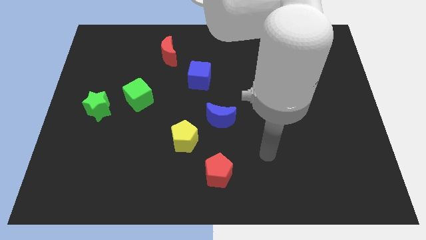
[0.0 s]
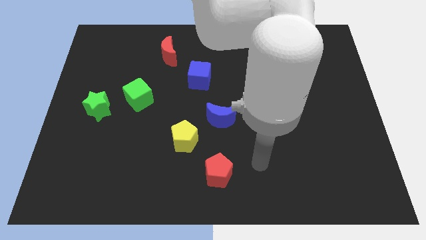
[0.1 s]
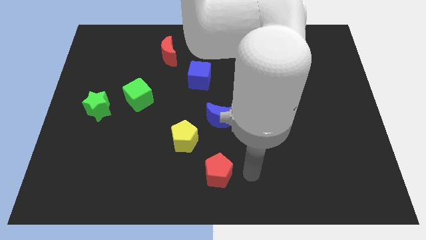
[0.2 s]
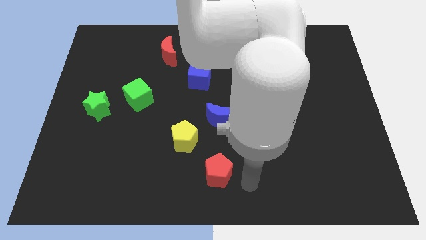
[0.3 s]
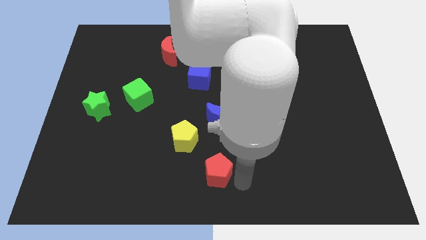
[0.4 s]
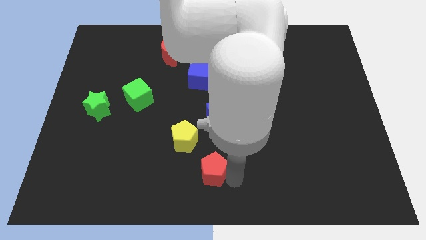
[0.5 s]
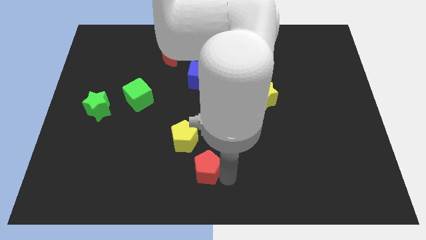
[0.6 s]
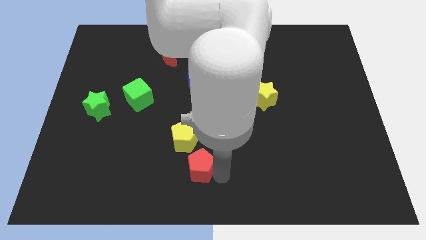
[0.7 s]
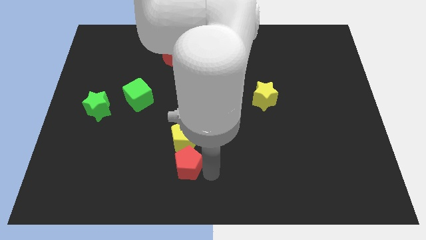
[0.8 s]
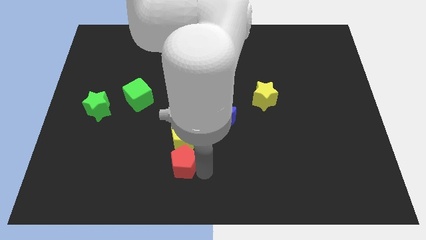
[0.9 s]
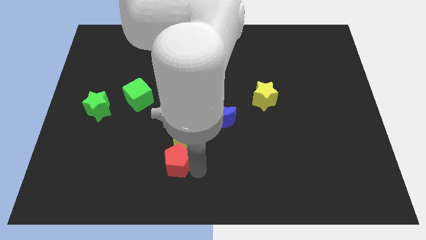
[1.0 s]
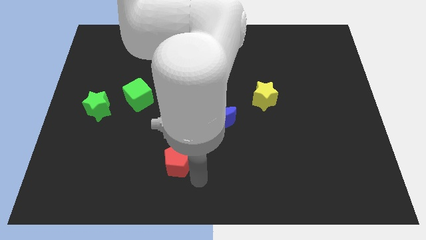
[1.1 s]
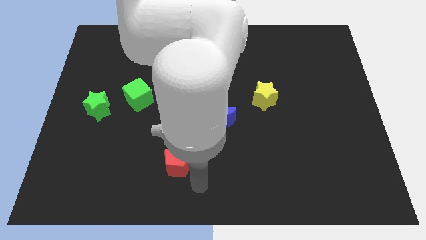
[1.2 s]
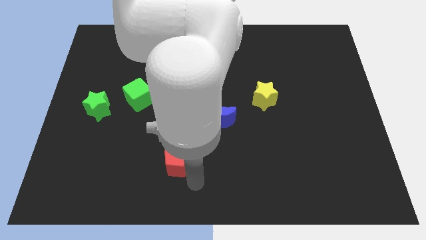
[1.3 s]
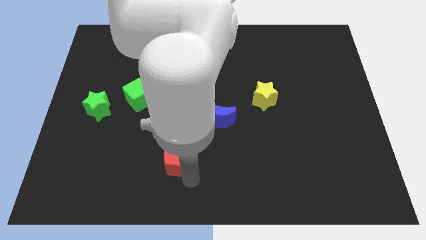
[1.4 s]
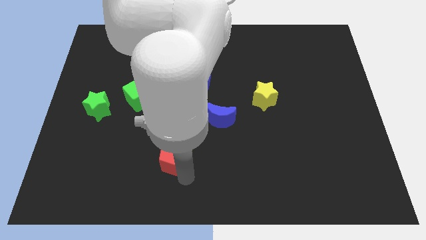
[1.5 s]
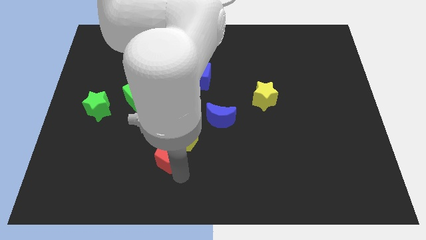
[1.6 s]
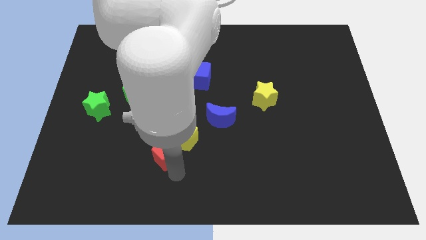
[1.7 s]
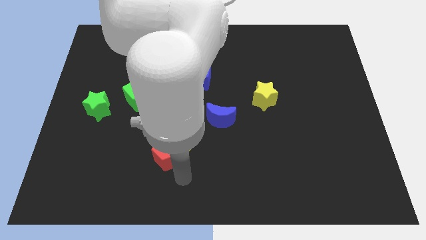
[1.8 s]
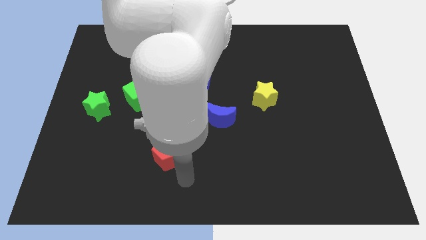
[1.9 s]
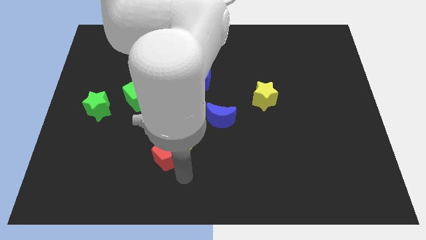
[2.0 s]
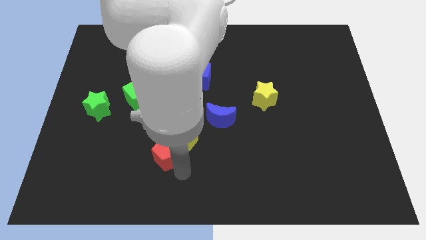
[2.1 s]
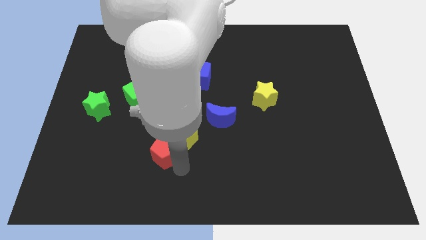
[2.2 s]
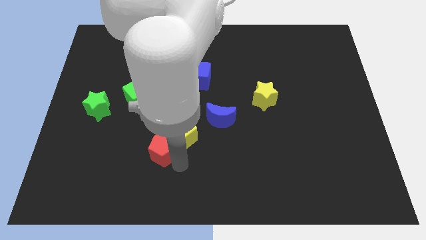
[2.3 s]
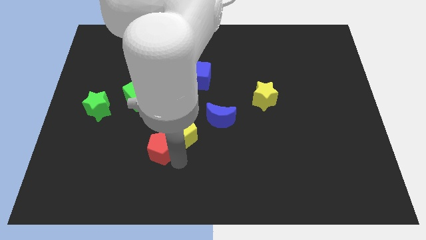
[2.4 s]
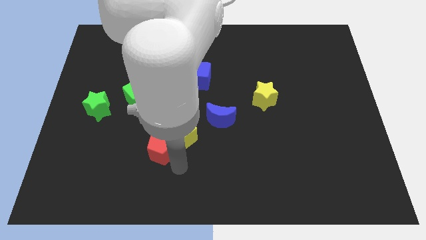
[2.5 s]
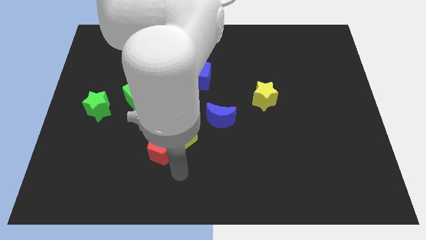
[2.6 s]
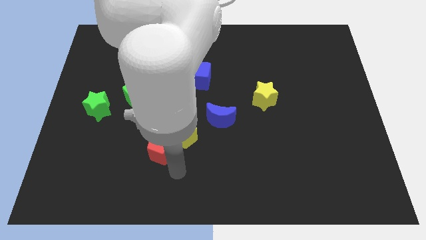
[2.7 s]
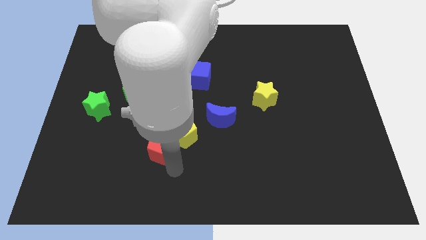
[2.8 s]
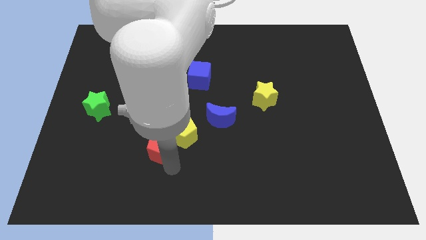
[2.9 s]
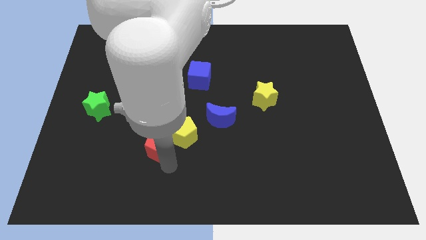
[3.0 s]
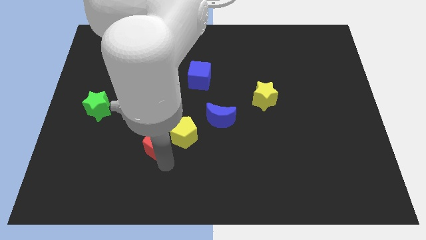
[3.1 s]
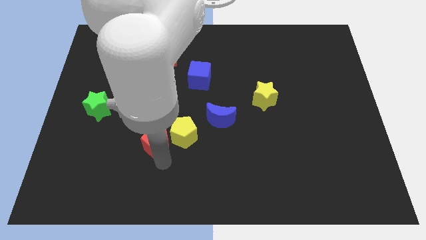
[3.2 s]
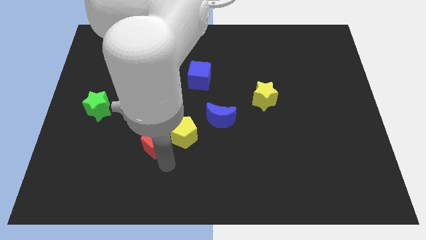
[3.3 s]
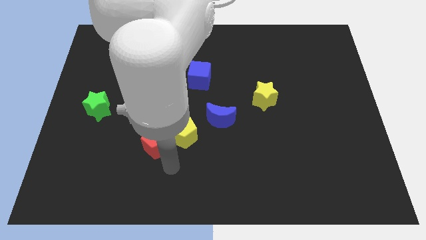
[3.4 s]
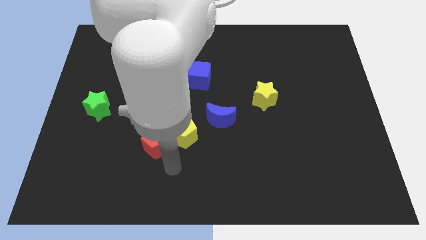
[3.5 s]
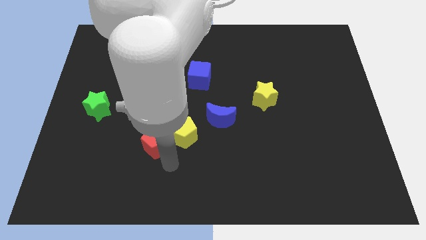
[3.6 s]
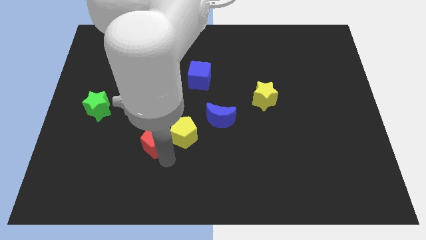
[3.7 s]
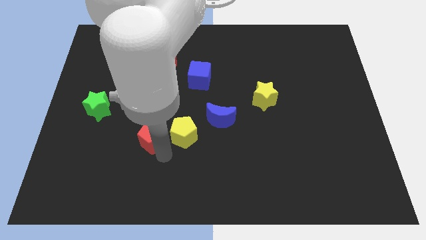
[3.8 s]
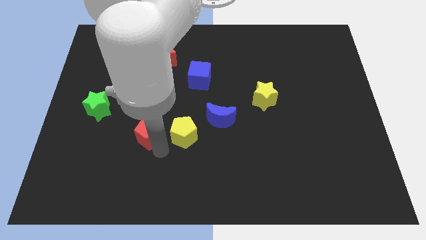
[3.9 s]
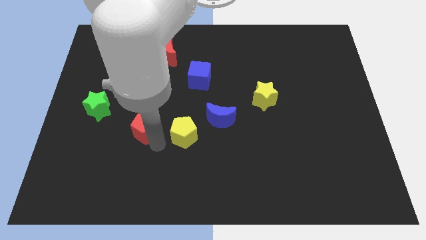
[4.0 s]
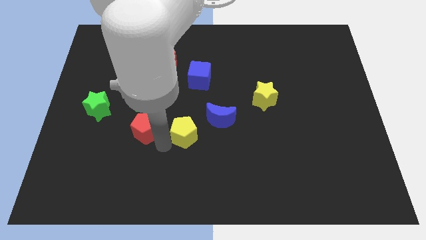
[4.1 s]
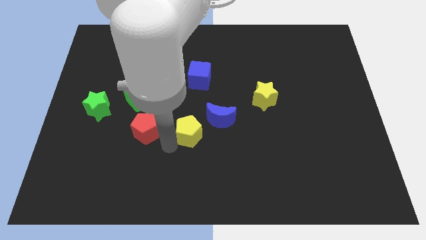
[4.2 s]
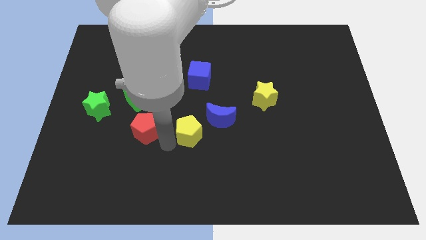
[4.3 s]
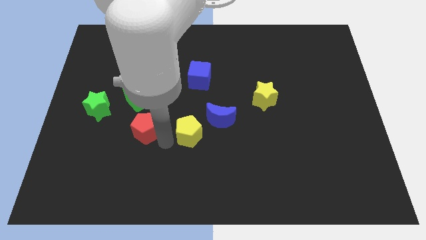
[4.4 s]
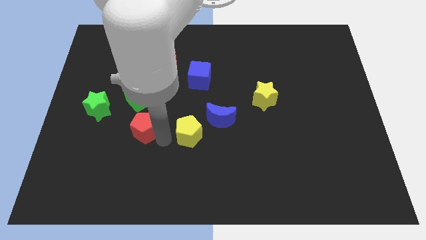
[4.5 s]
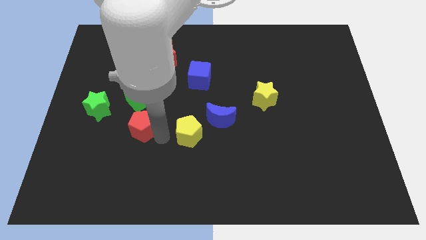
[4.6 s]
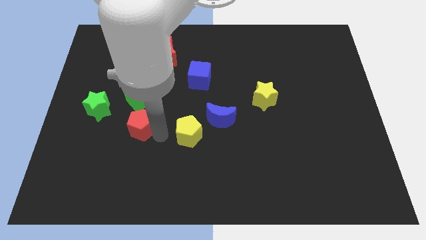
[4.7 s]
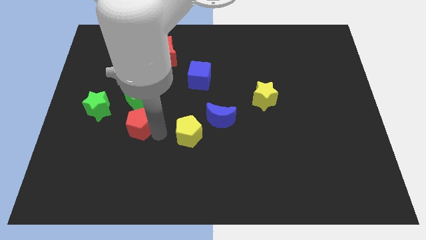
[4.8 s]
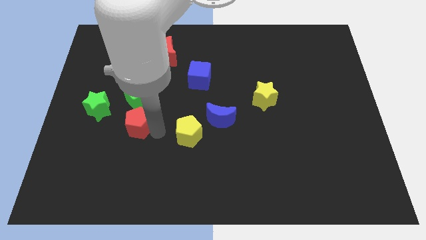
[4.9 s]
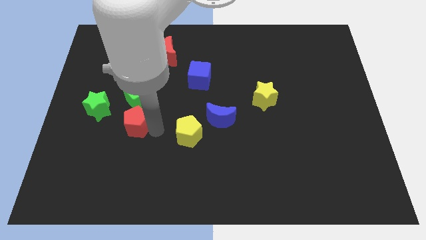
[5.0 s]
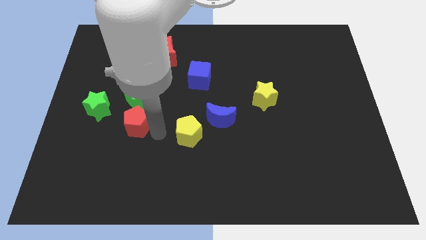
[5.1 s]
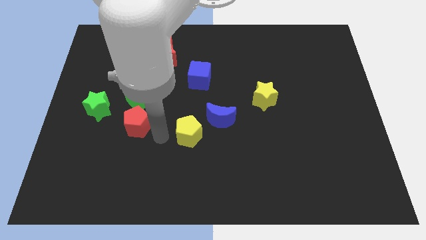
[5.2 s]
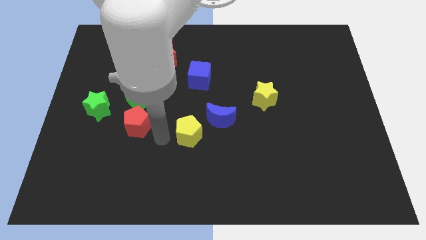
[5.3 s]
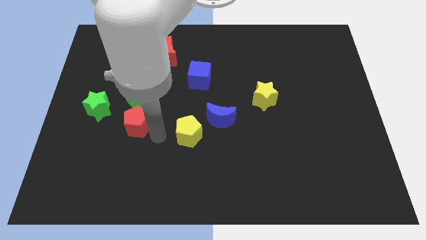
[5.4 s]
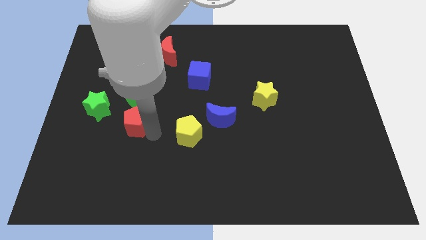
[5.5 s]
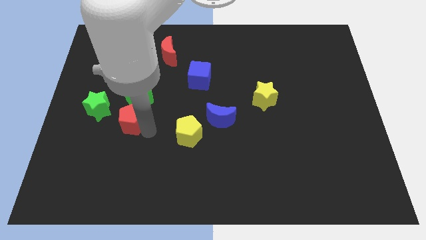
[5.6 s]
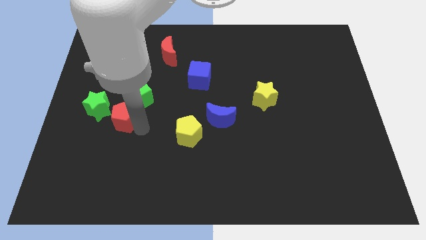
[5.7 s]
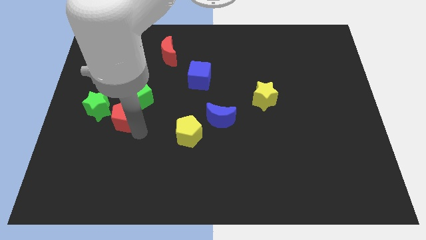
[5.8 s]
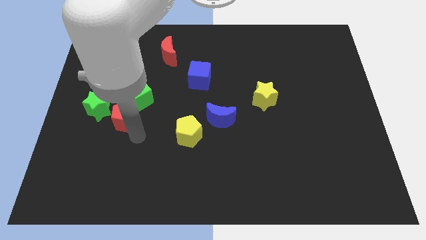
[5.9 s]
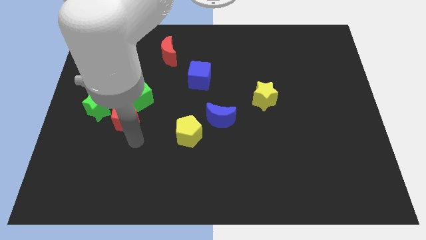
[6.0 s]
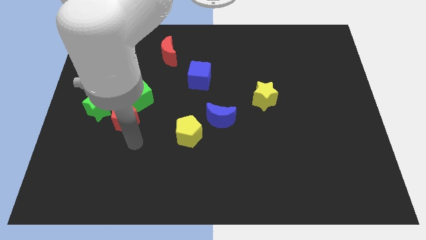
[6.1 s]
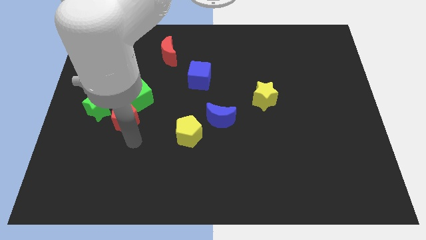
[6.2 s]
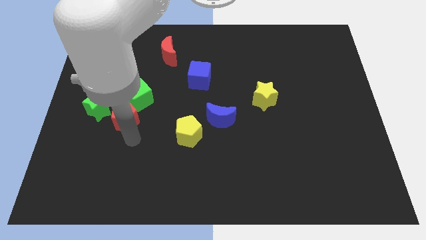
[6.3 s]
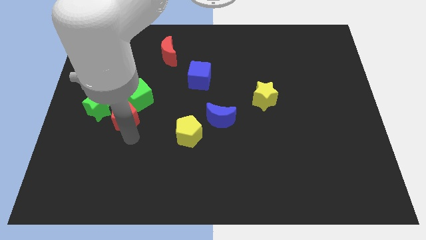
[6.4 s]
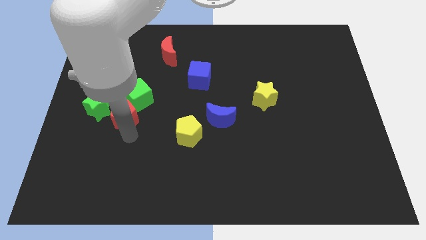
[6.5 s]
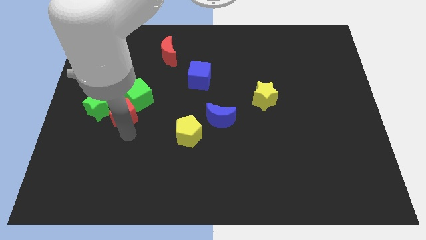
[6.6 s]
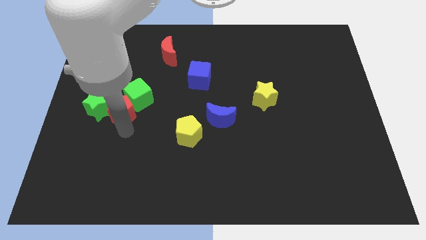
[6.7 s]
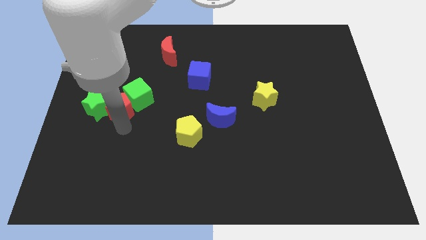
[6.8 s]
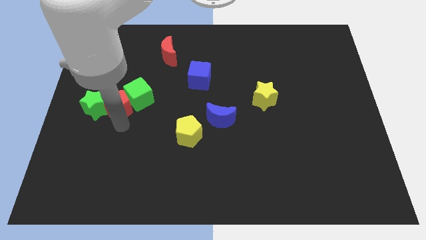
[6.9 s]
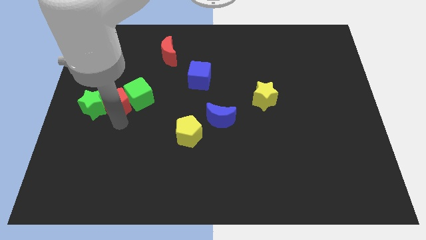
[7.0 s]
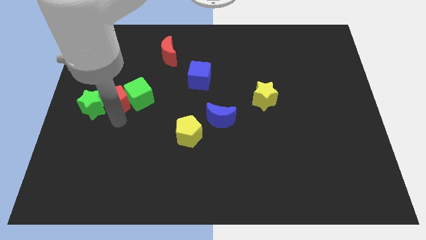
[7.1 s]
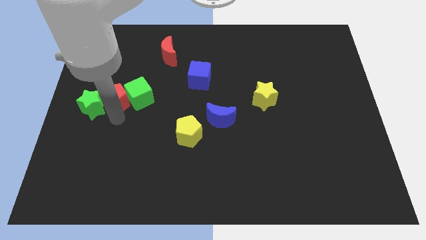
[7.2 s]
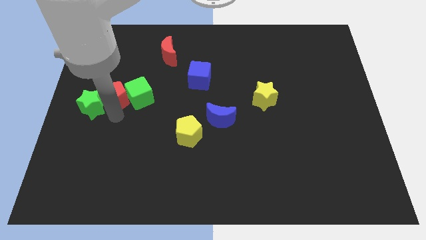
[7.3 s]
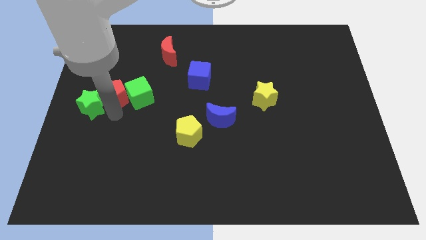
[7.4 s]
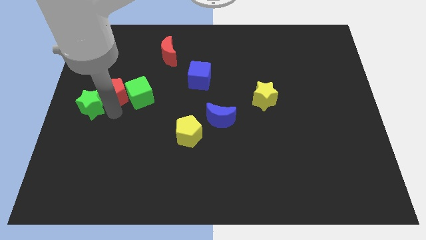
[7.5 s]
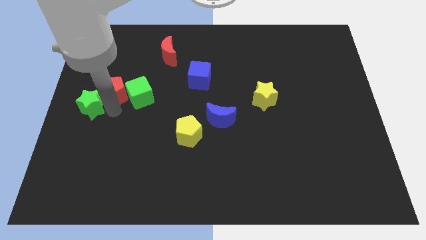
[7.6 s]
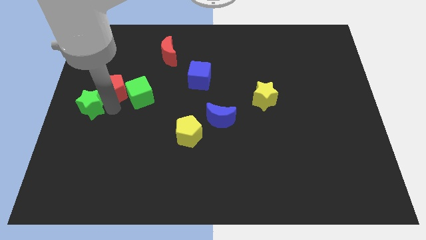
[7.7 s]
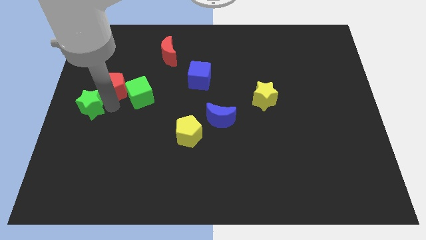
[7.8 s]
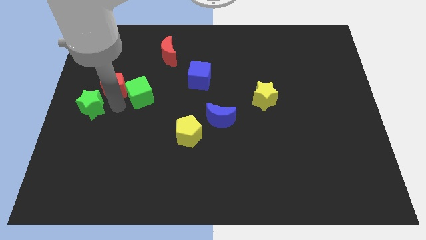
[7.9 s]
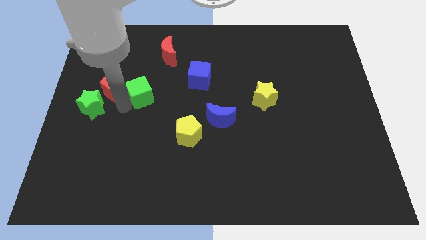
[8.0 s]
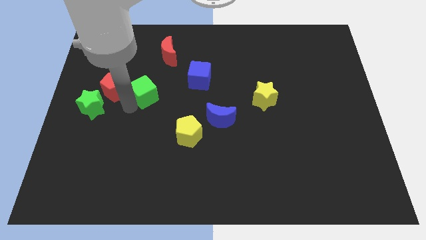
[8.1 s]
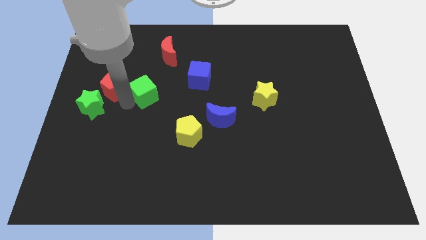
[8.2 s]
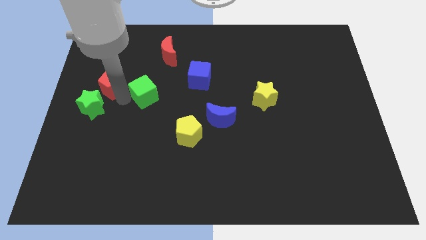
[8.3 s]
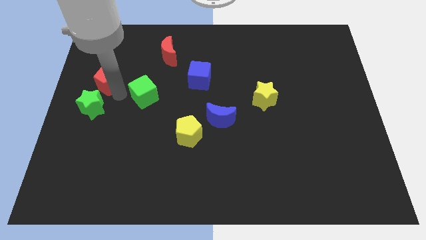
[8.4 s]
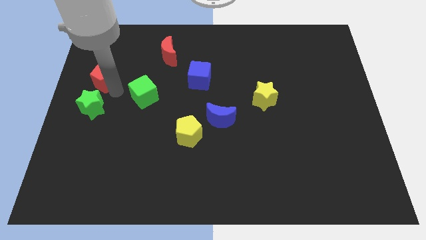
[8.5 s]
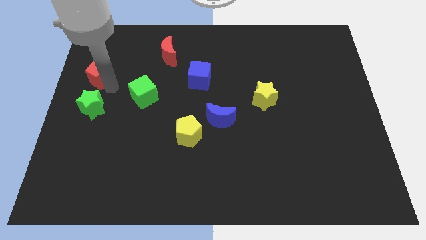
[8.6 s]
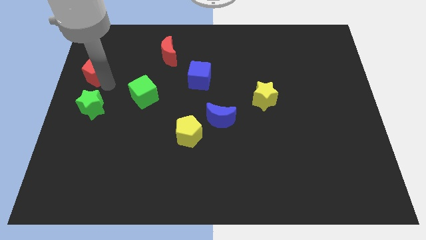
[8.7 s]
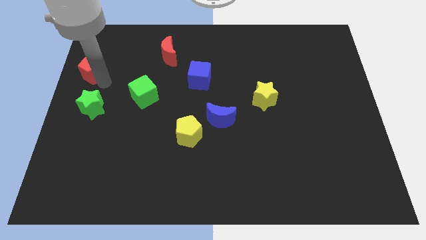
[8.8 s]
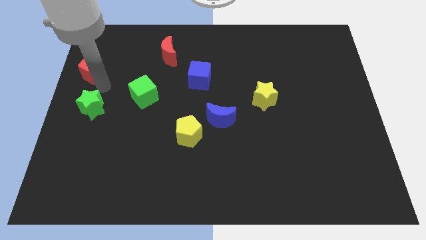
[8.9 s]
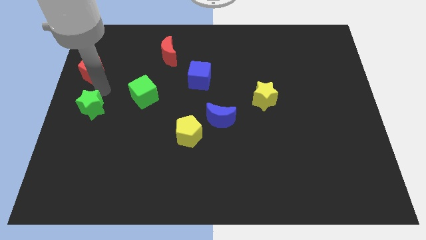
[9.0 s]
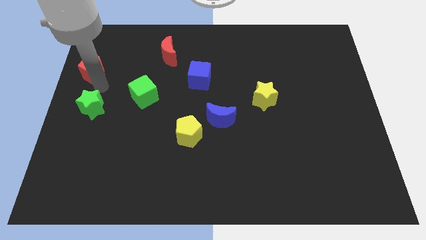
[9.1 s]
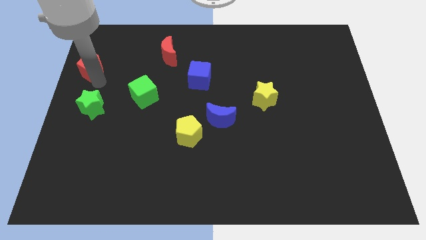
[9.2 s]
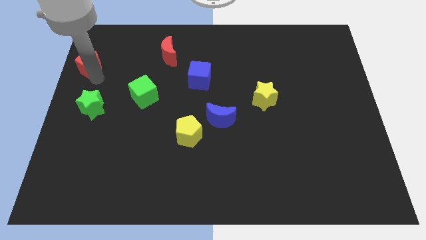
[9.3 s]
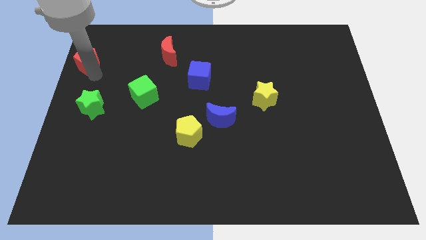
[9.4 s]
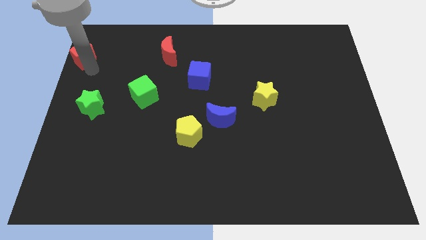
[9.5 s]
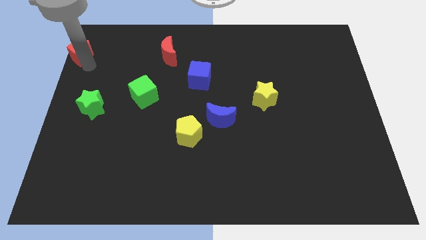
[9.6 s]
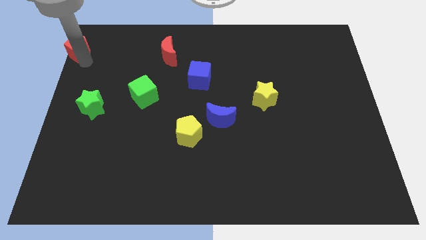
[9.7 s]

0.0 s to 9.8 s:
slide the red pentagon to the top left corner
